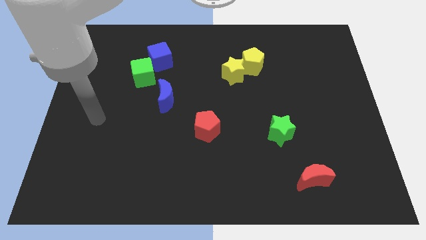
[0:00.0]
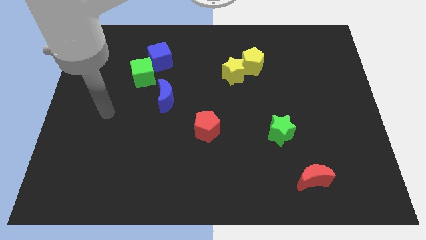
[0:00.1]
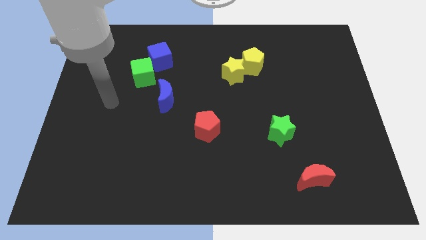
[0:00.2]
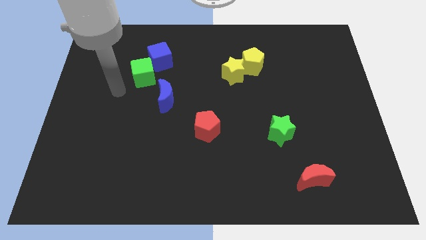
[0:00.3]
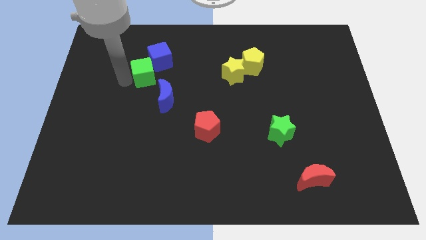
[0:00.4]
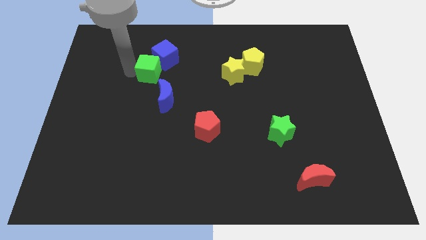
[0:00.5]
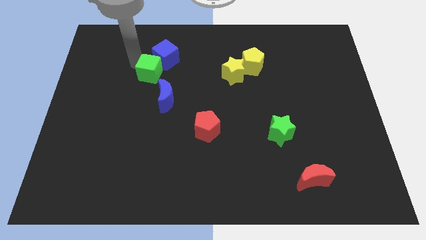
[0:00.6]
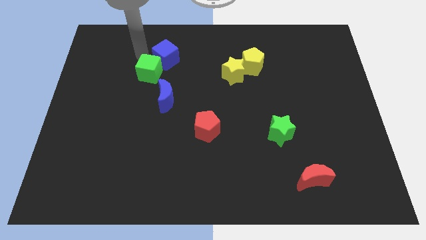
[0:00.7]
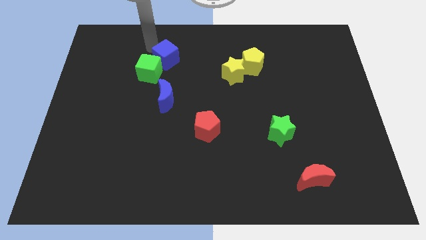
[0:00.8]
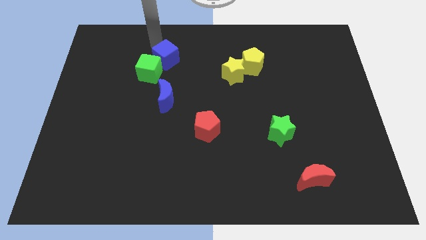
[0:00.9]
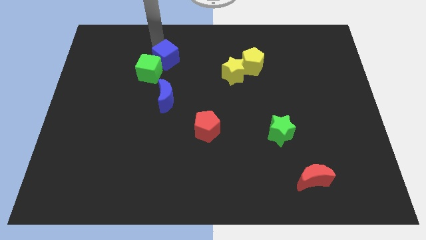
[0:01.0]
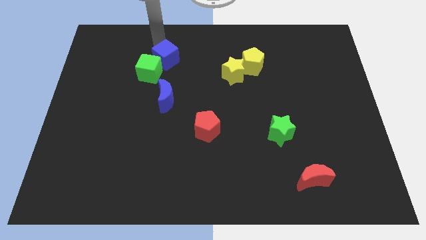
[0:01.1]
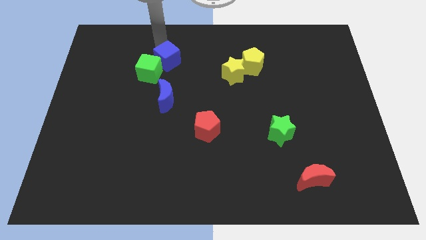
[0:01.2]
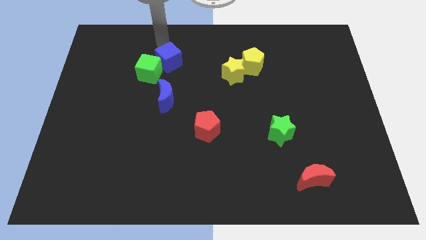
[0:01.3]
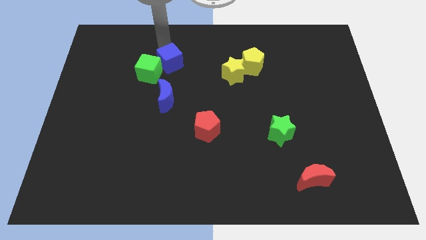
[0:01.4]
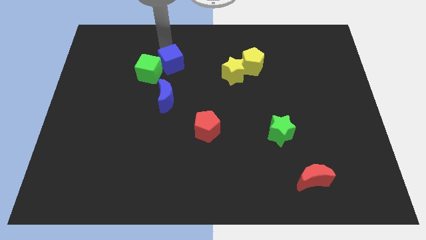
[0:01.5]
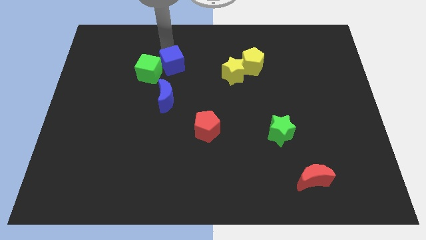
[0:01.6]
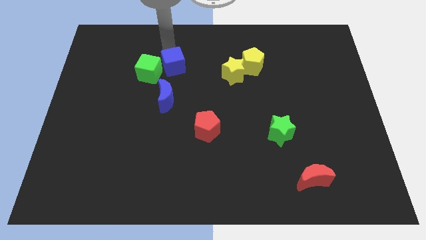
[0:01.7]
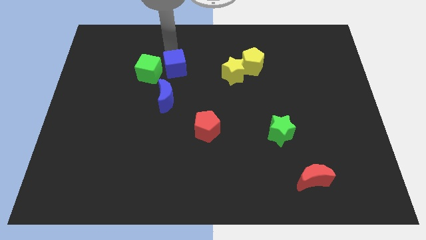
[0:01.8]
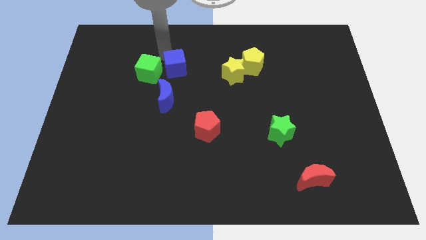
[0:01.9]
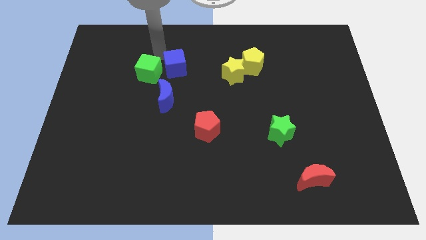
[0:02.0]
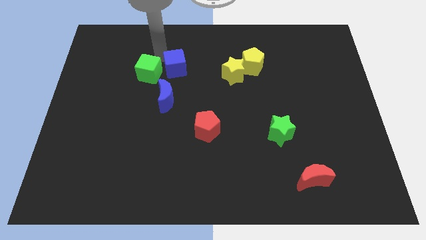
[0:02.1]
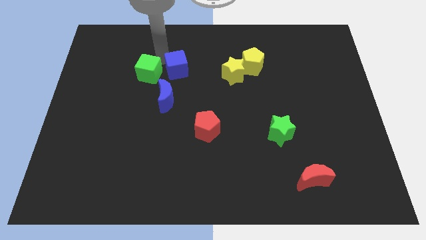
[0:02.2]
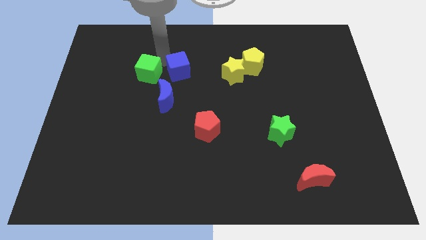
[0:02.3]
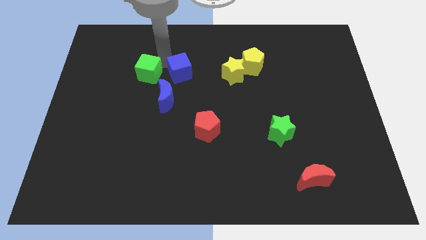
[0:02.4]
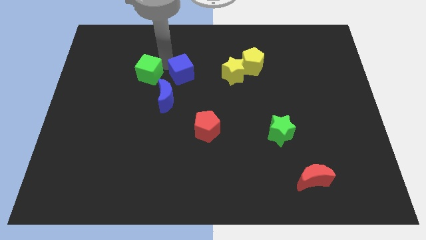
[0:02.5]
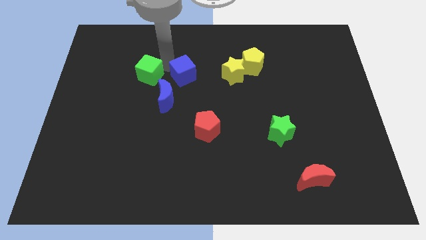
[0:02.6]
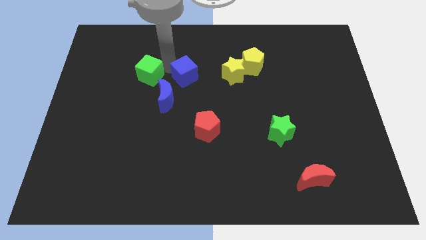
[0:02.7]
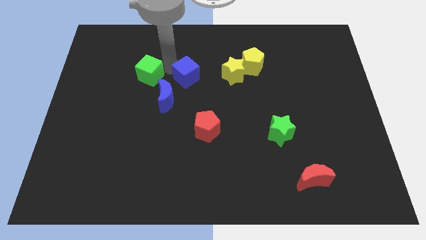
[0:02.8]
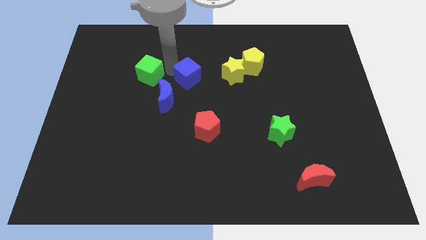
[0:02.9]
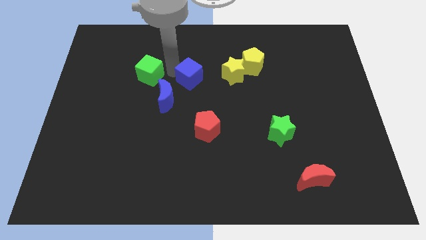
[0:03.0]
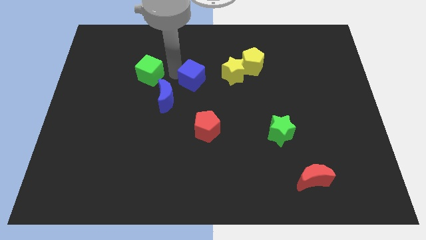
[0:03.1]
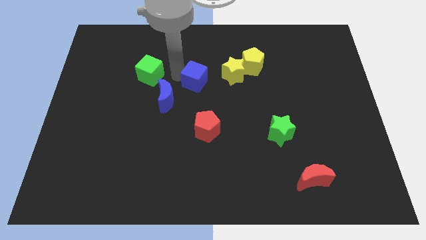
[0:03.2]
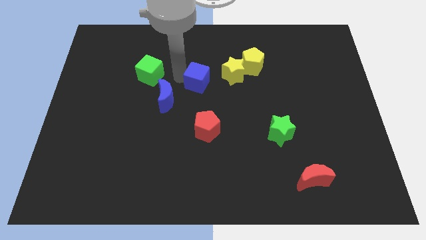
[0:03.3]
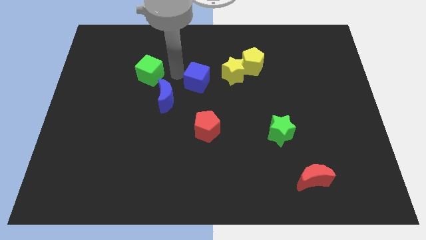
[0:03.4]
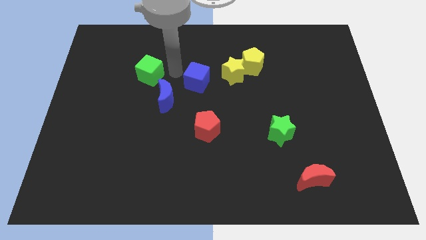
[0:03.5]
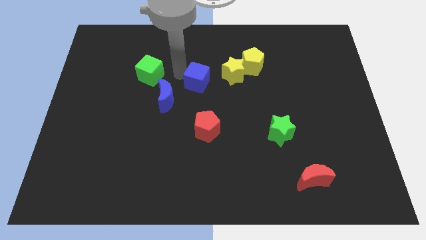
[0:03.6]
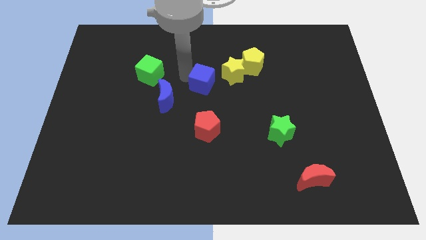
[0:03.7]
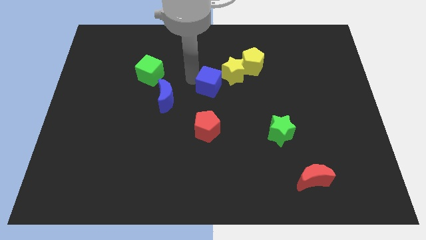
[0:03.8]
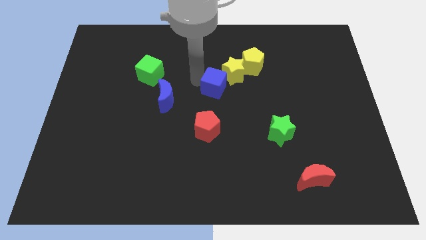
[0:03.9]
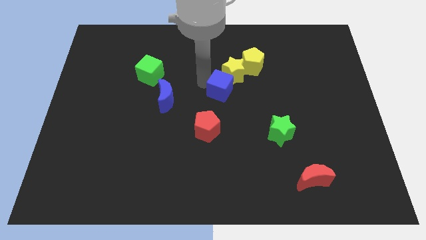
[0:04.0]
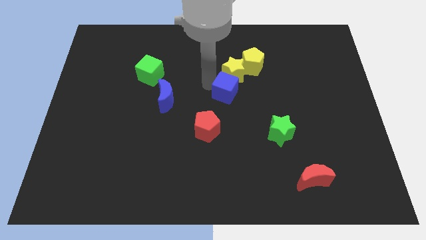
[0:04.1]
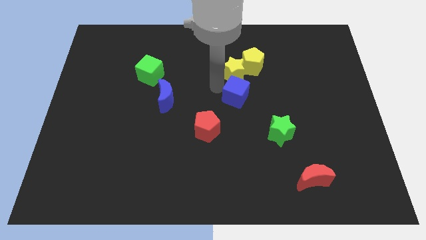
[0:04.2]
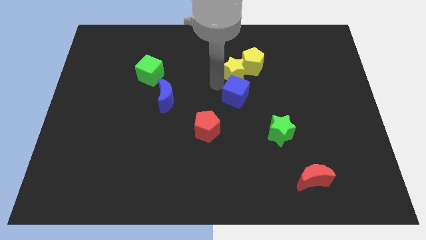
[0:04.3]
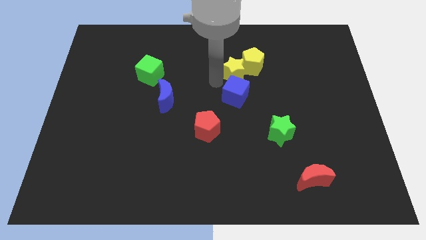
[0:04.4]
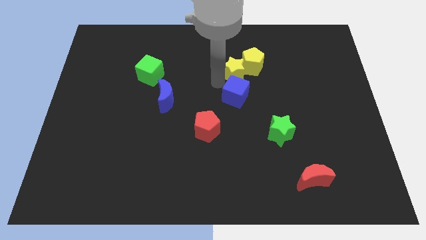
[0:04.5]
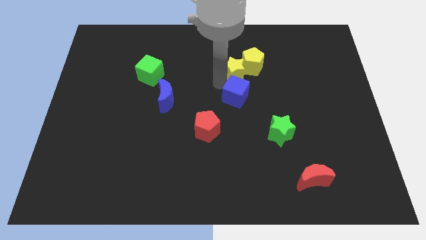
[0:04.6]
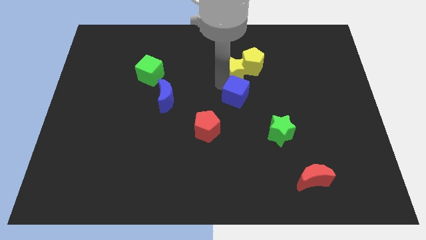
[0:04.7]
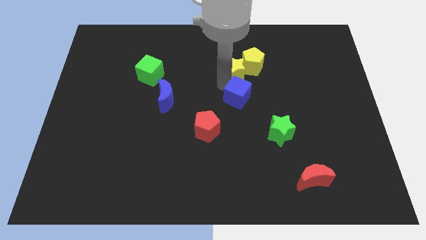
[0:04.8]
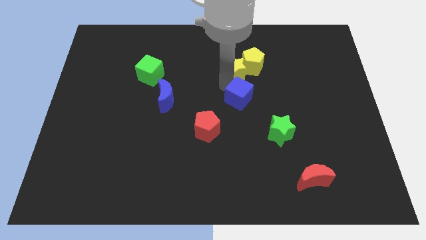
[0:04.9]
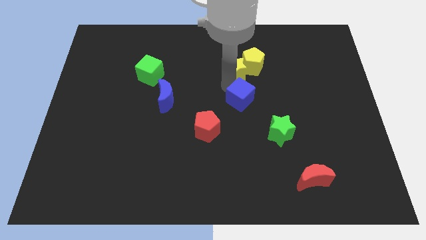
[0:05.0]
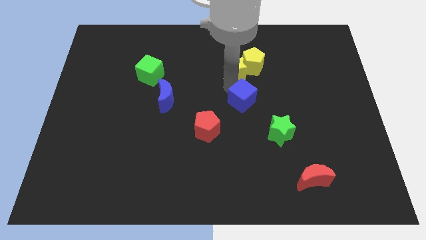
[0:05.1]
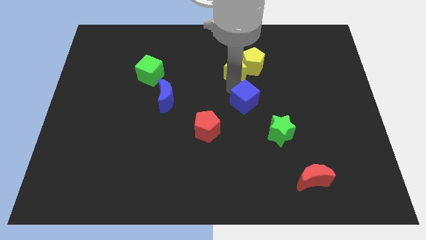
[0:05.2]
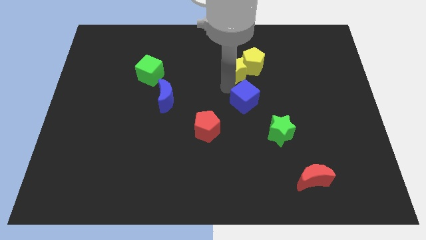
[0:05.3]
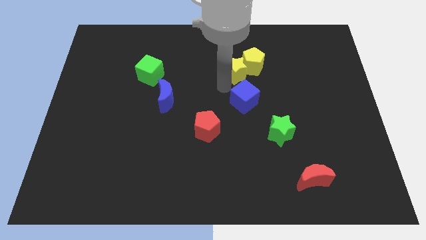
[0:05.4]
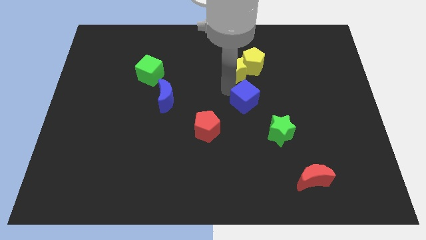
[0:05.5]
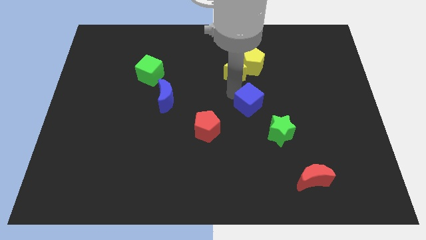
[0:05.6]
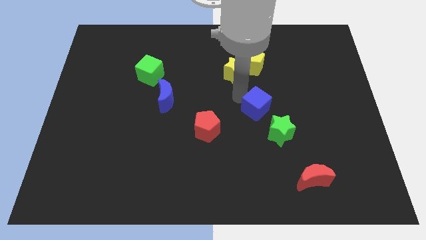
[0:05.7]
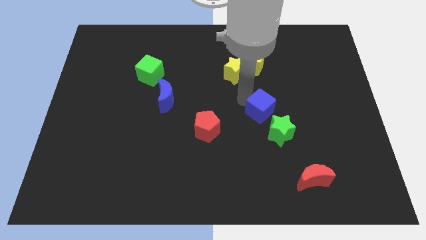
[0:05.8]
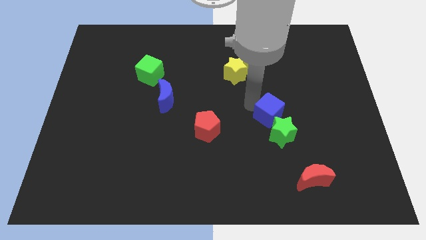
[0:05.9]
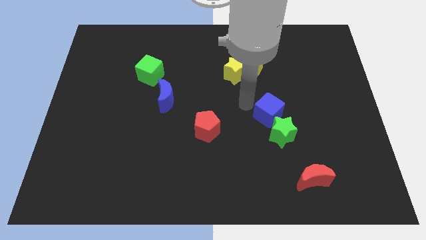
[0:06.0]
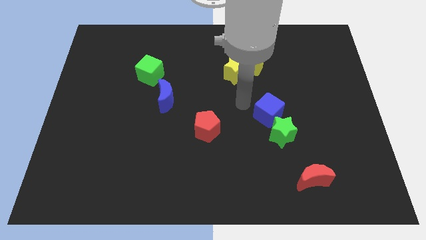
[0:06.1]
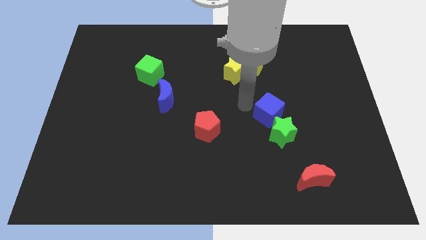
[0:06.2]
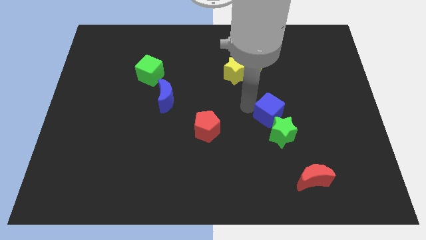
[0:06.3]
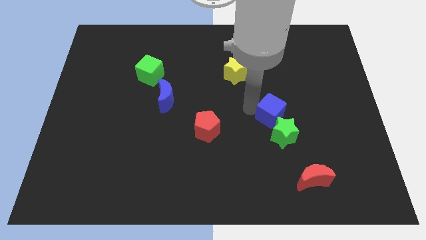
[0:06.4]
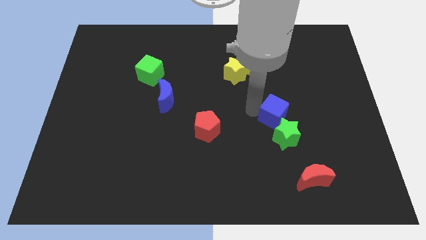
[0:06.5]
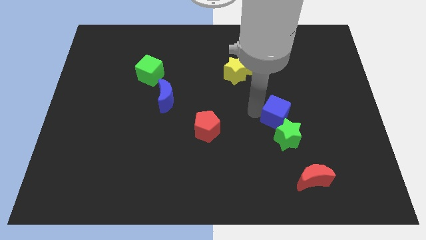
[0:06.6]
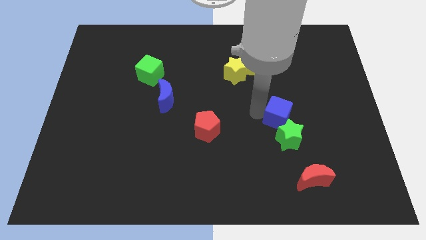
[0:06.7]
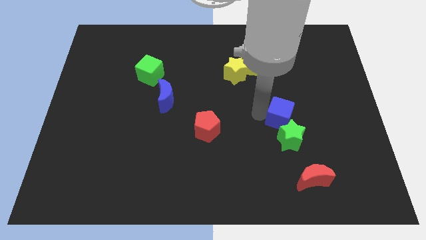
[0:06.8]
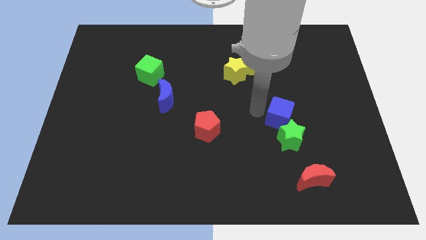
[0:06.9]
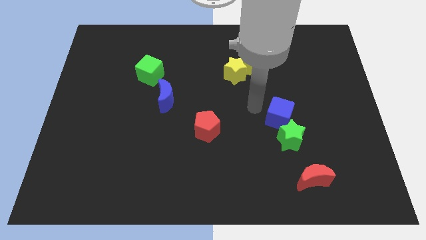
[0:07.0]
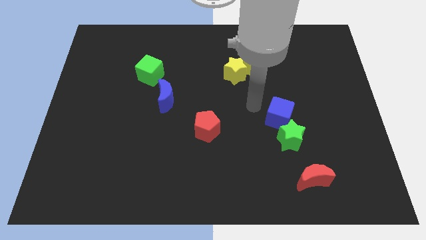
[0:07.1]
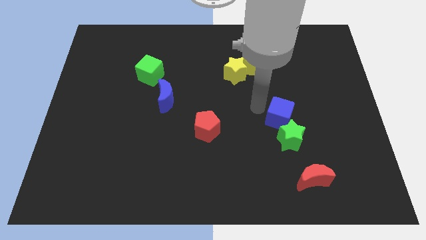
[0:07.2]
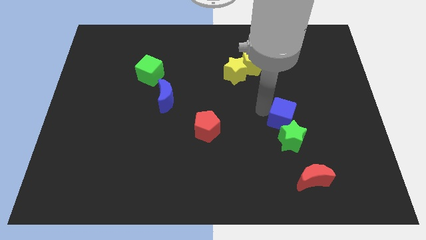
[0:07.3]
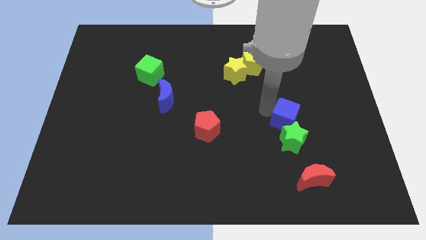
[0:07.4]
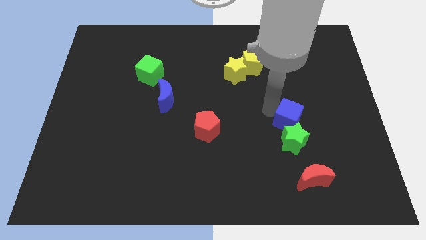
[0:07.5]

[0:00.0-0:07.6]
slide the blue cube to the top of the red moon

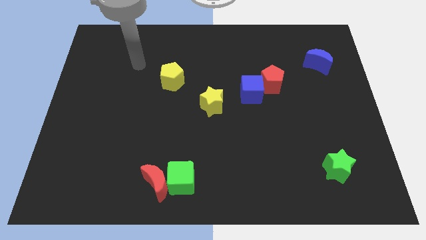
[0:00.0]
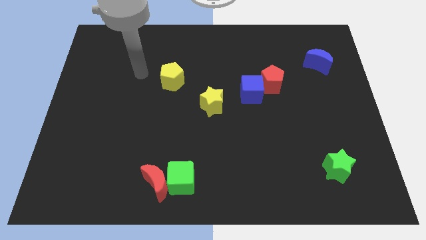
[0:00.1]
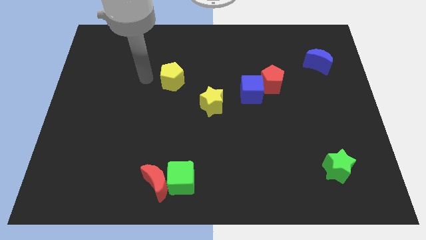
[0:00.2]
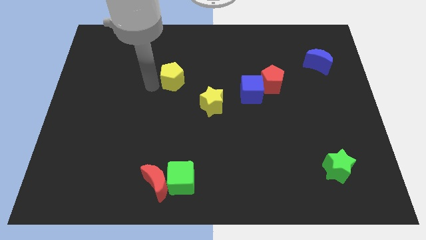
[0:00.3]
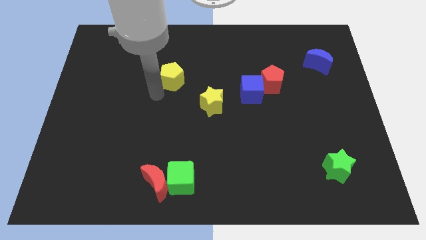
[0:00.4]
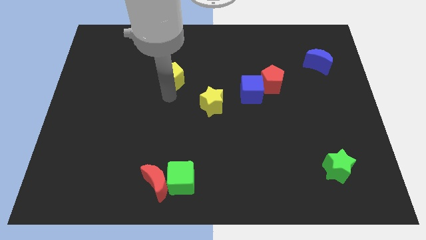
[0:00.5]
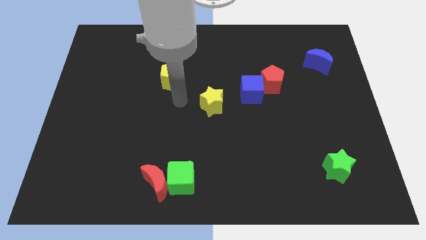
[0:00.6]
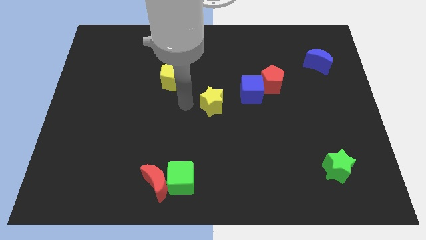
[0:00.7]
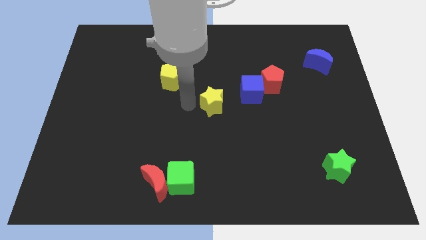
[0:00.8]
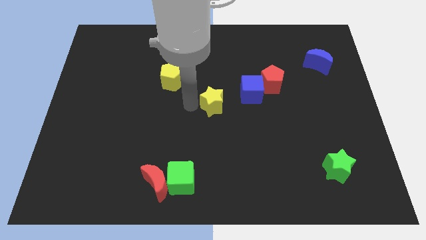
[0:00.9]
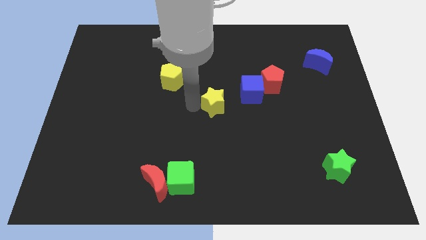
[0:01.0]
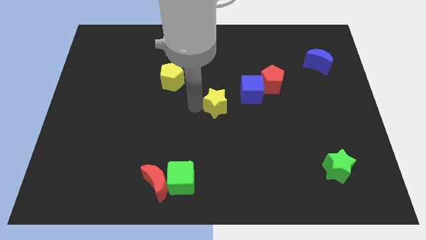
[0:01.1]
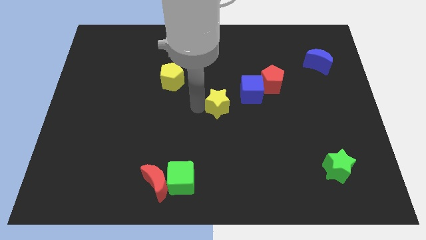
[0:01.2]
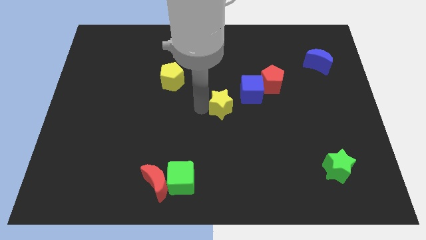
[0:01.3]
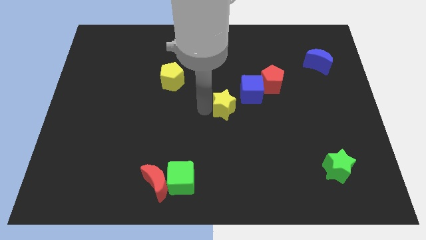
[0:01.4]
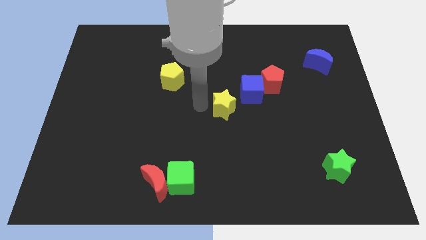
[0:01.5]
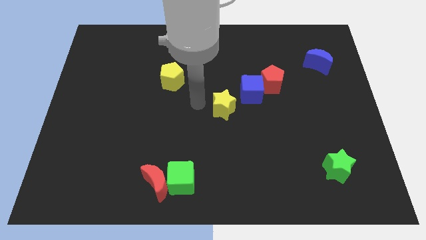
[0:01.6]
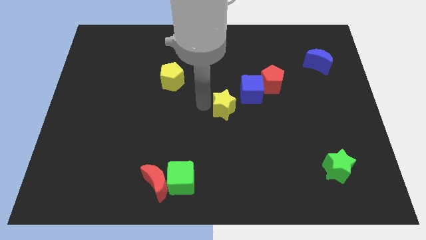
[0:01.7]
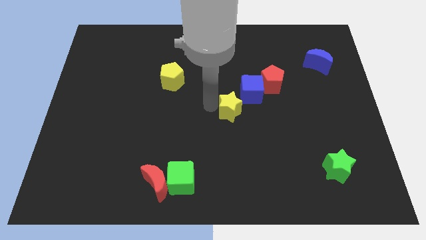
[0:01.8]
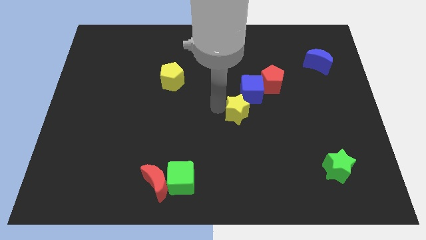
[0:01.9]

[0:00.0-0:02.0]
put the yellow star to the bottom left of the red pentagon
